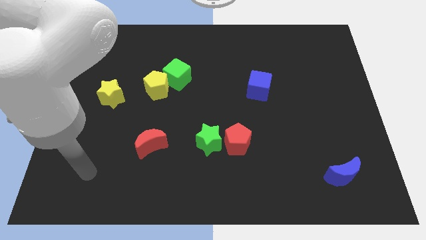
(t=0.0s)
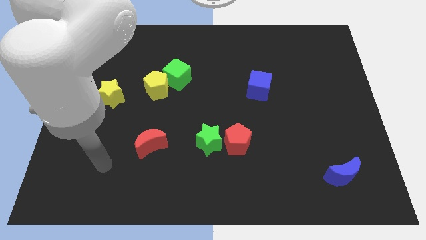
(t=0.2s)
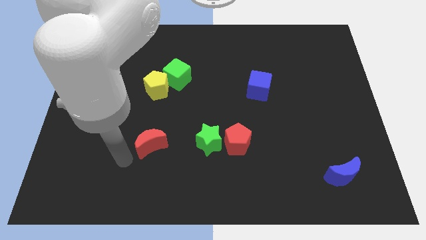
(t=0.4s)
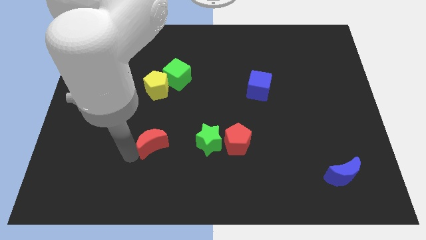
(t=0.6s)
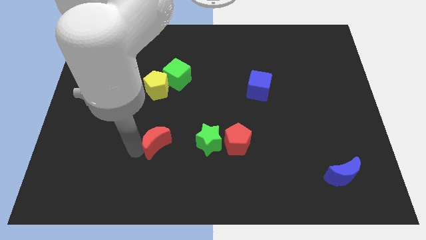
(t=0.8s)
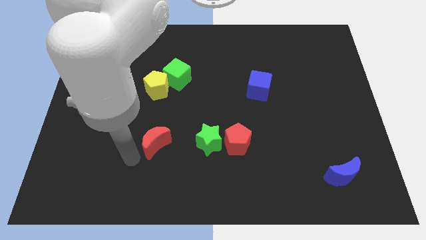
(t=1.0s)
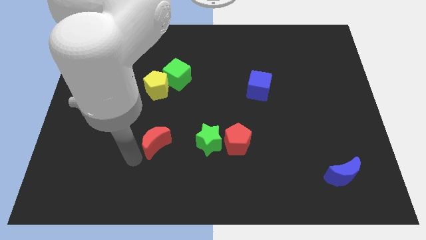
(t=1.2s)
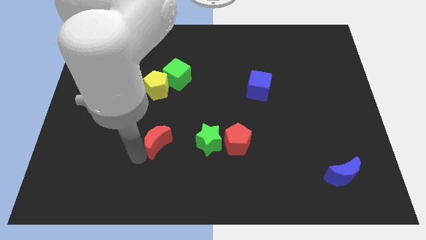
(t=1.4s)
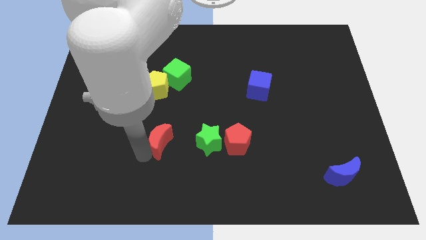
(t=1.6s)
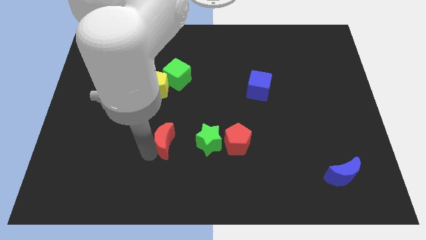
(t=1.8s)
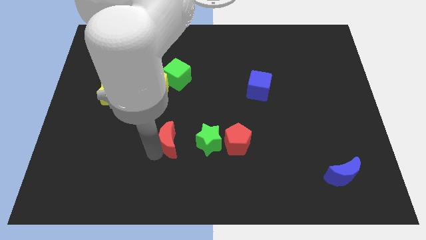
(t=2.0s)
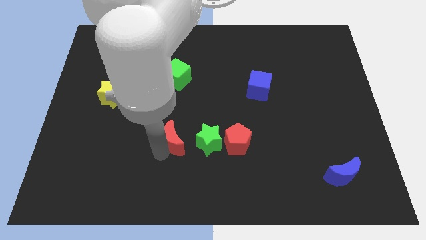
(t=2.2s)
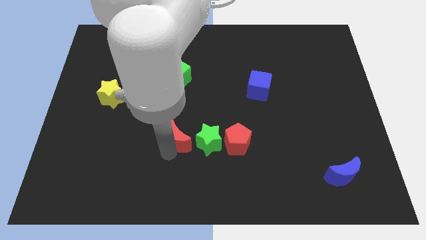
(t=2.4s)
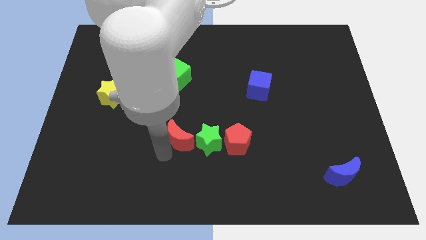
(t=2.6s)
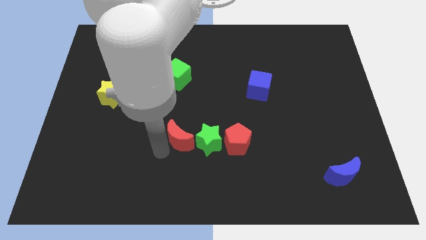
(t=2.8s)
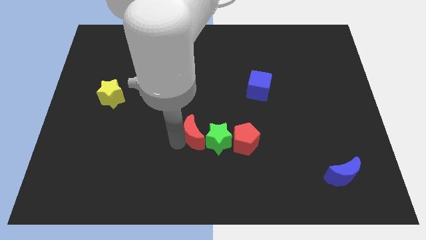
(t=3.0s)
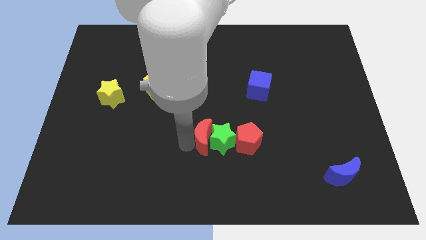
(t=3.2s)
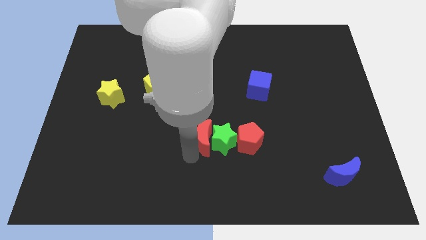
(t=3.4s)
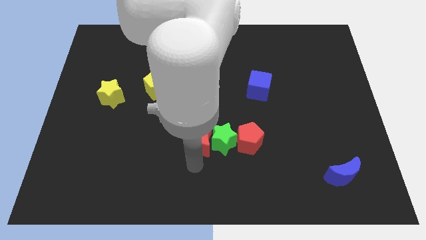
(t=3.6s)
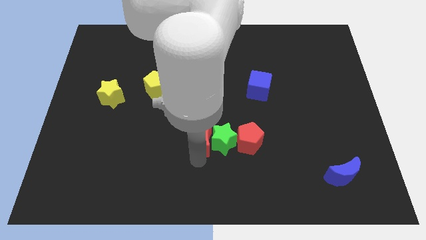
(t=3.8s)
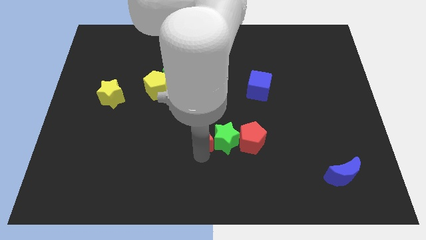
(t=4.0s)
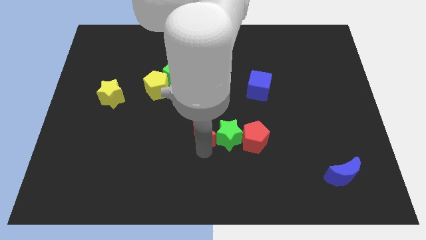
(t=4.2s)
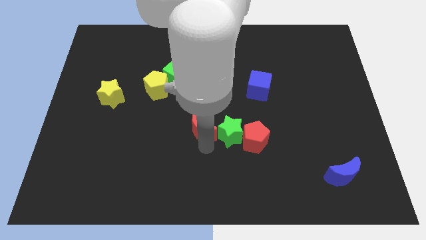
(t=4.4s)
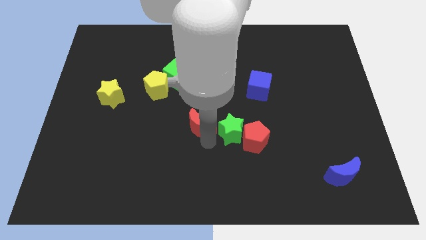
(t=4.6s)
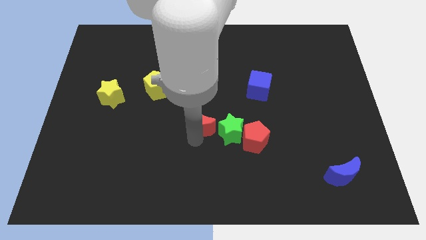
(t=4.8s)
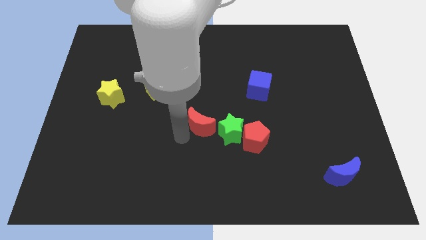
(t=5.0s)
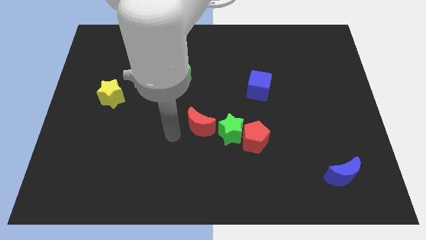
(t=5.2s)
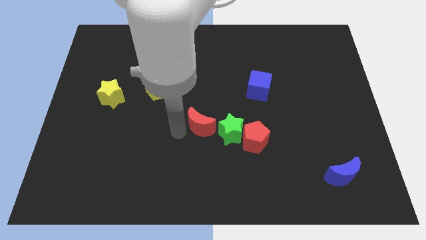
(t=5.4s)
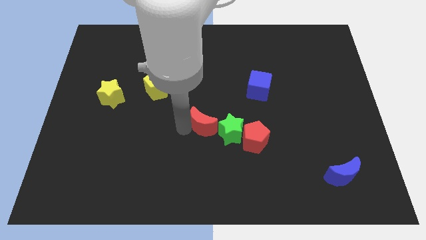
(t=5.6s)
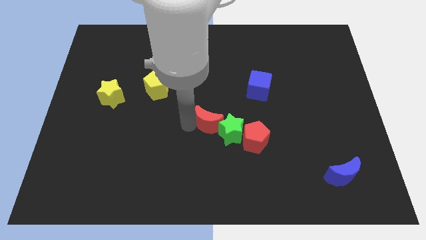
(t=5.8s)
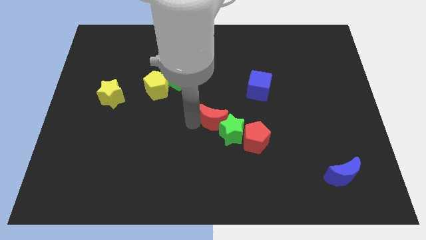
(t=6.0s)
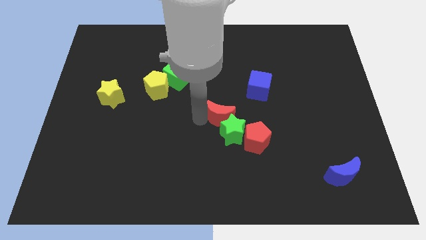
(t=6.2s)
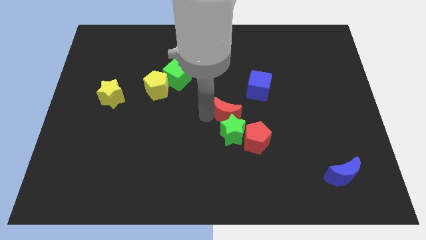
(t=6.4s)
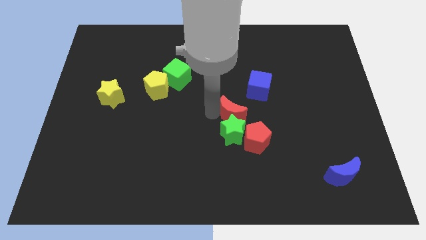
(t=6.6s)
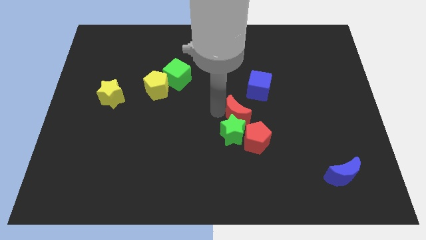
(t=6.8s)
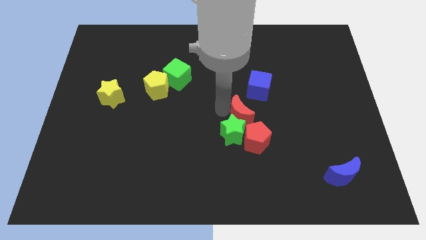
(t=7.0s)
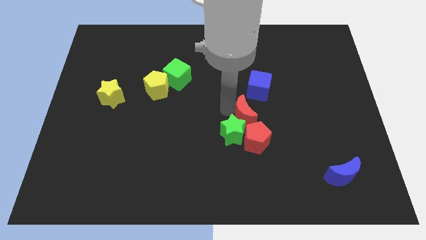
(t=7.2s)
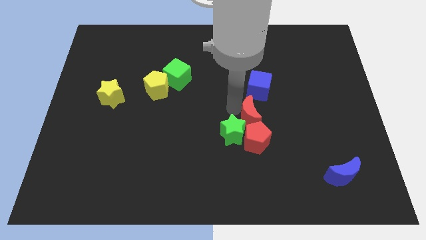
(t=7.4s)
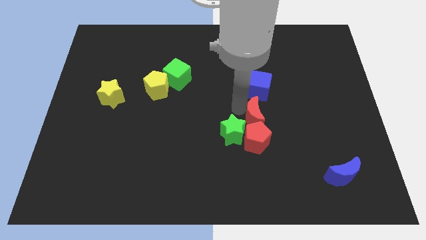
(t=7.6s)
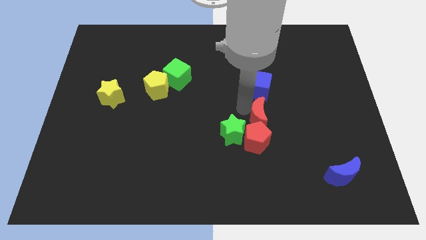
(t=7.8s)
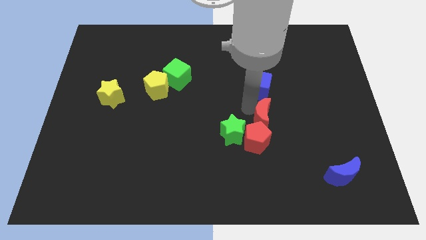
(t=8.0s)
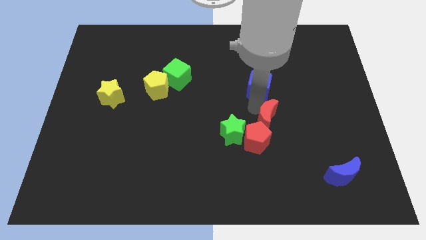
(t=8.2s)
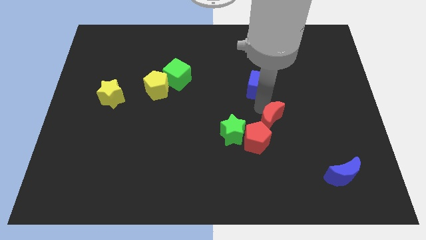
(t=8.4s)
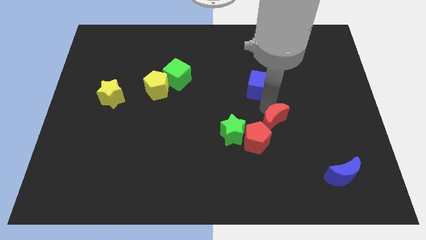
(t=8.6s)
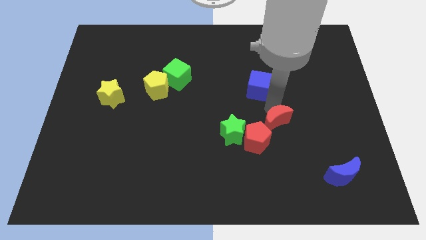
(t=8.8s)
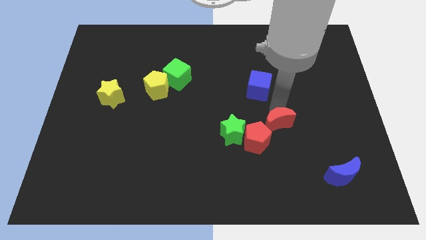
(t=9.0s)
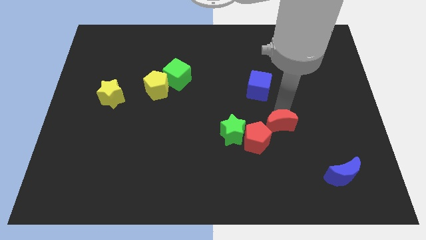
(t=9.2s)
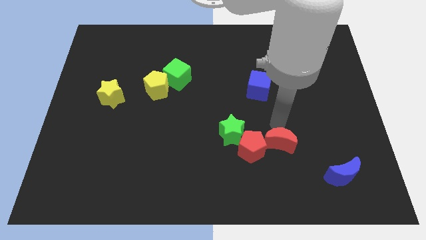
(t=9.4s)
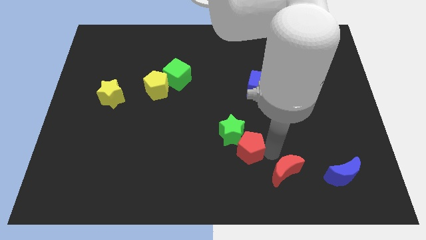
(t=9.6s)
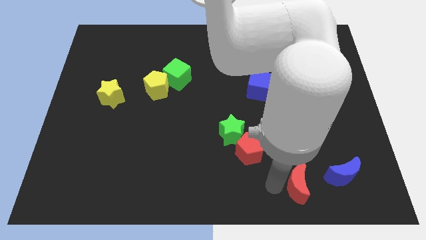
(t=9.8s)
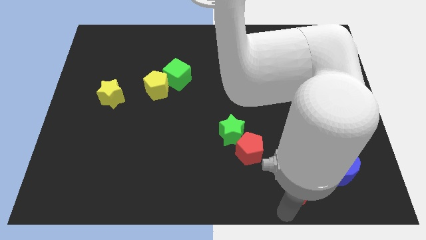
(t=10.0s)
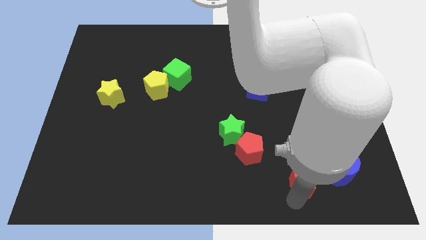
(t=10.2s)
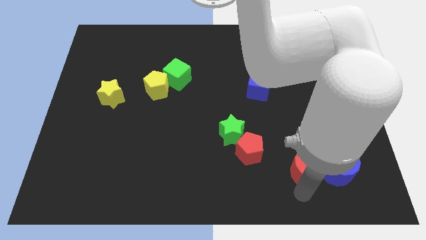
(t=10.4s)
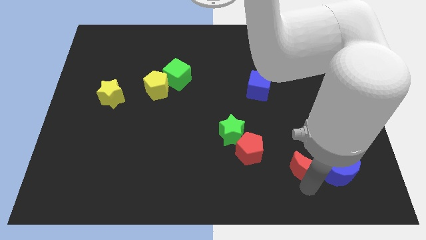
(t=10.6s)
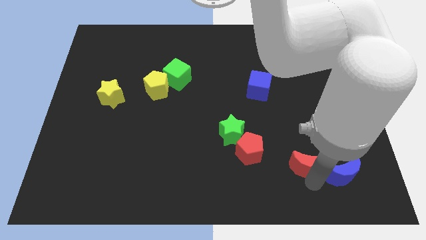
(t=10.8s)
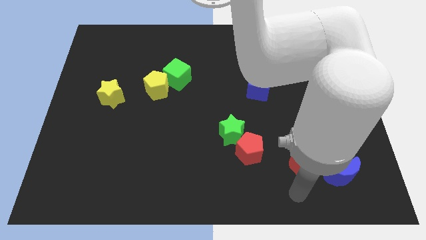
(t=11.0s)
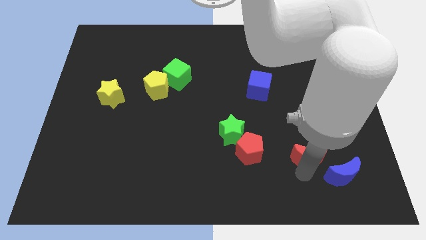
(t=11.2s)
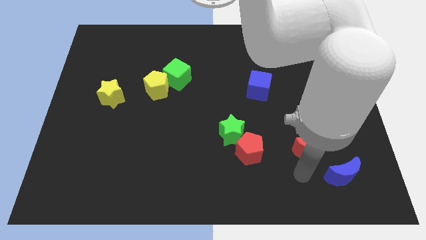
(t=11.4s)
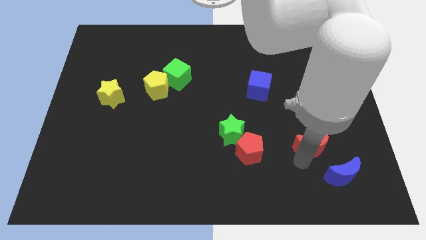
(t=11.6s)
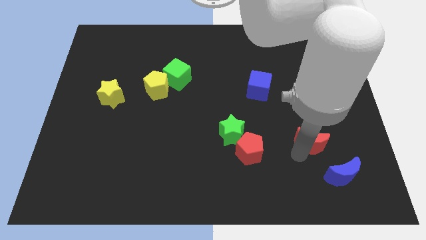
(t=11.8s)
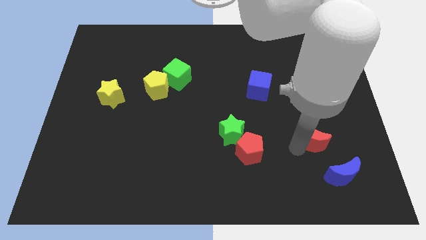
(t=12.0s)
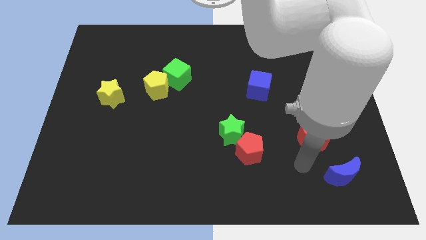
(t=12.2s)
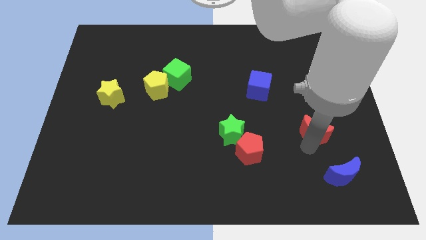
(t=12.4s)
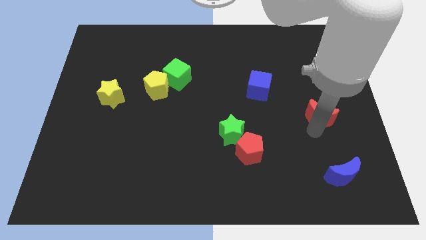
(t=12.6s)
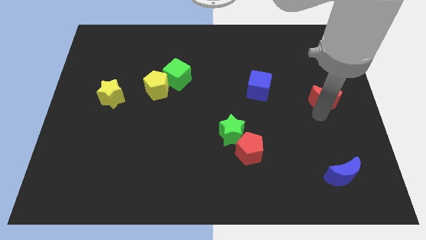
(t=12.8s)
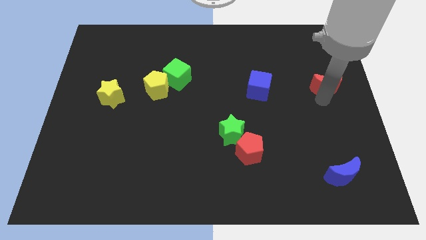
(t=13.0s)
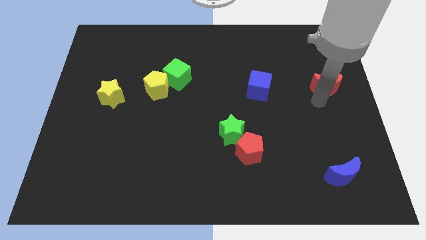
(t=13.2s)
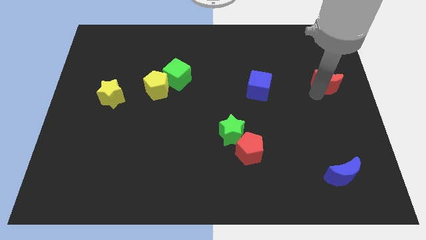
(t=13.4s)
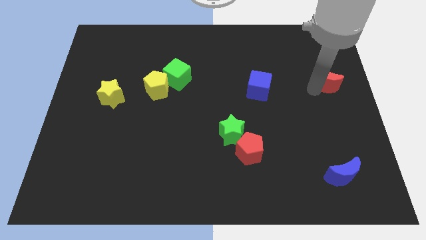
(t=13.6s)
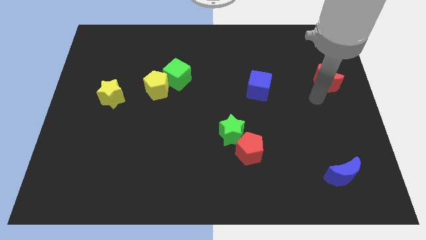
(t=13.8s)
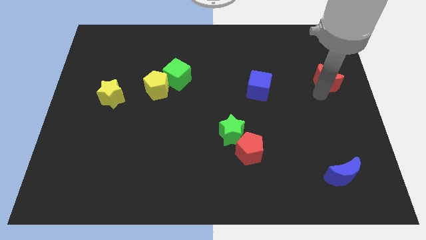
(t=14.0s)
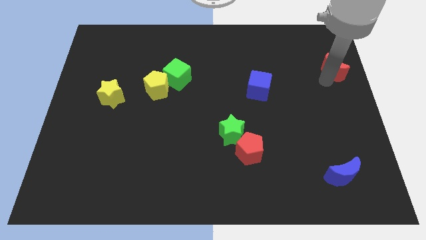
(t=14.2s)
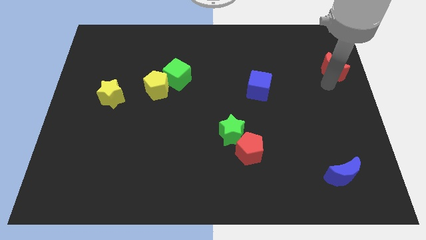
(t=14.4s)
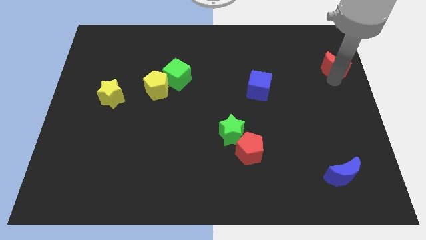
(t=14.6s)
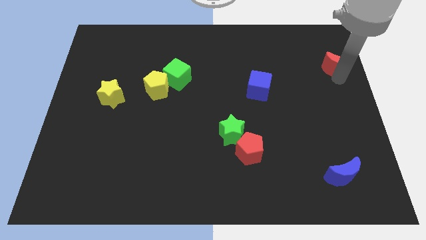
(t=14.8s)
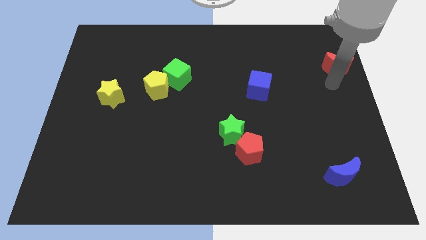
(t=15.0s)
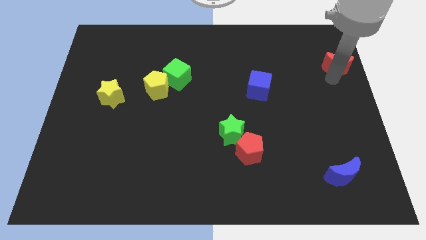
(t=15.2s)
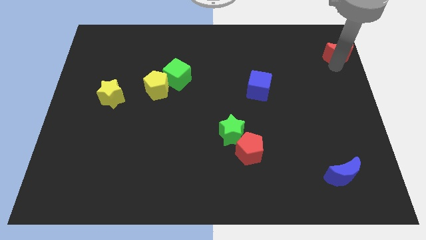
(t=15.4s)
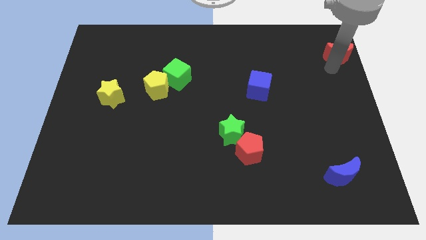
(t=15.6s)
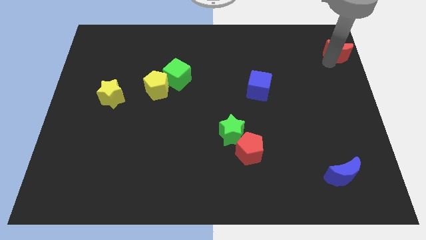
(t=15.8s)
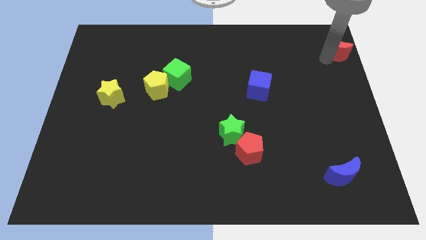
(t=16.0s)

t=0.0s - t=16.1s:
slide the red moon to the upper right corner
